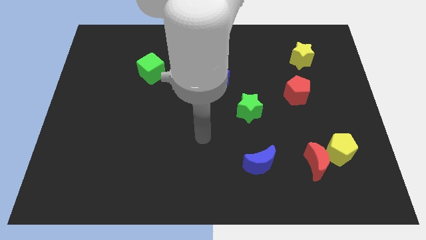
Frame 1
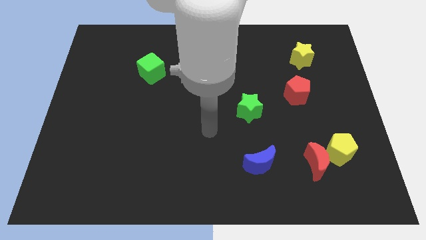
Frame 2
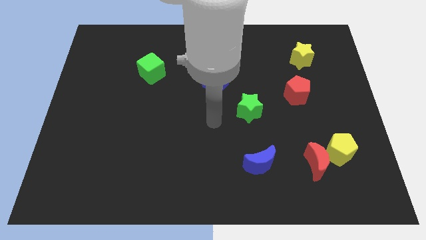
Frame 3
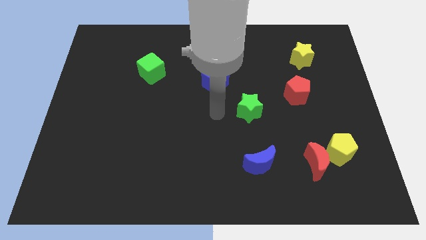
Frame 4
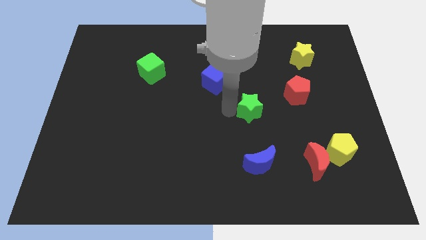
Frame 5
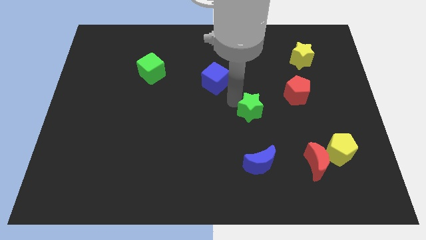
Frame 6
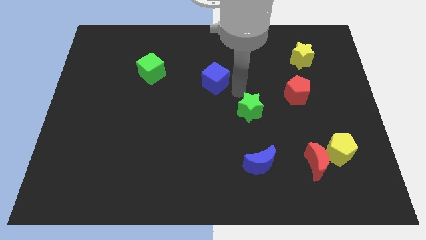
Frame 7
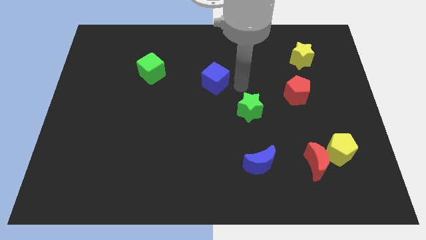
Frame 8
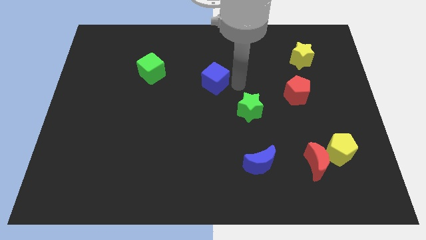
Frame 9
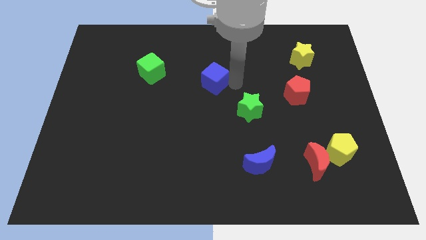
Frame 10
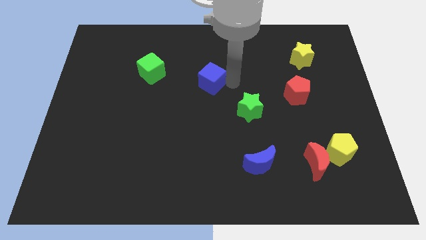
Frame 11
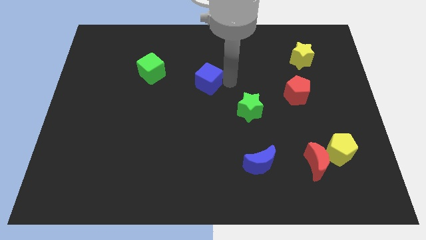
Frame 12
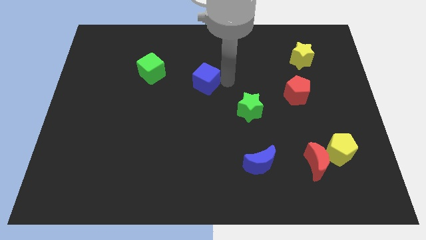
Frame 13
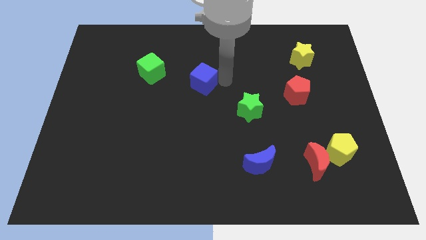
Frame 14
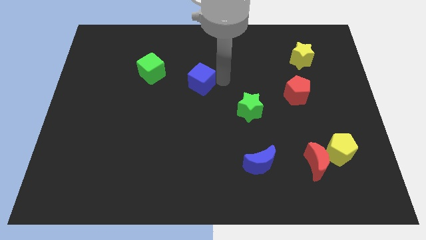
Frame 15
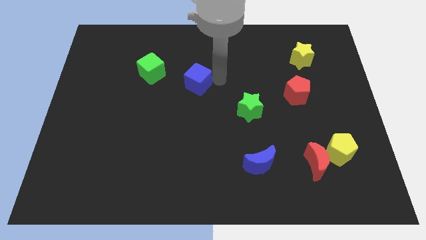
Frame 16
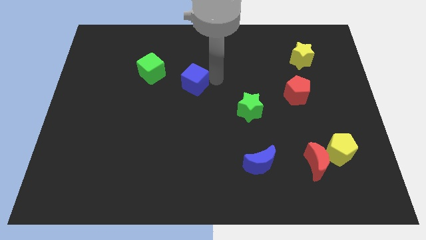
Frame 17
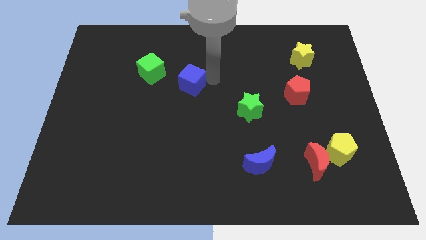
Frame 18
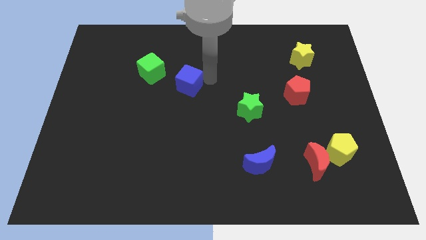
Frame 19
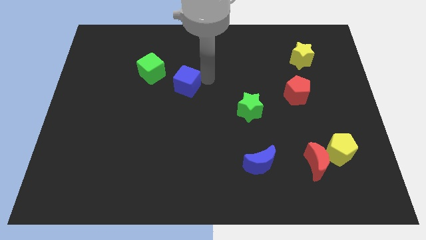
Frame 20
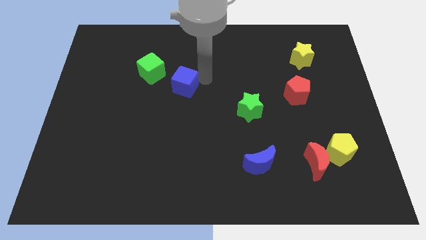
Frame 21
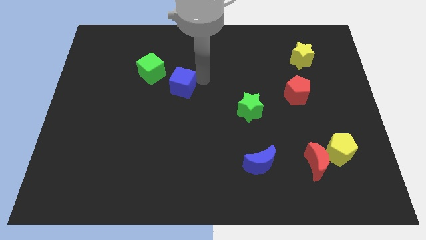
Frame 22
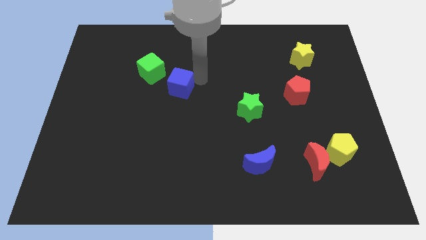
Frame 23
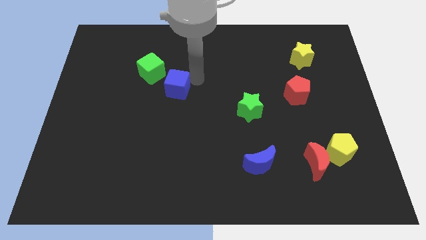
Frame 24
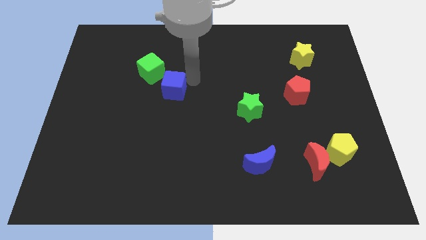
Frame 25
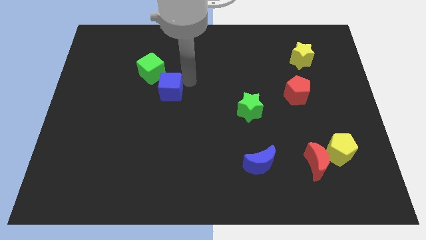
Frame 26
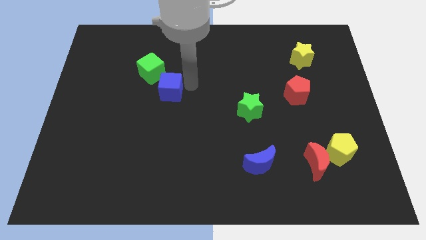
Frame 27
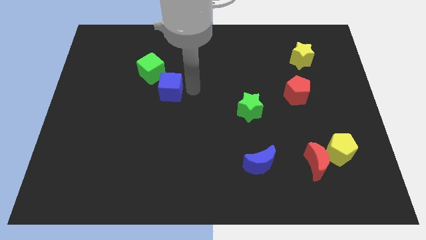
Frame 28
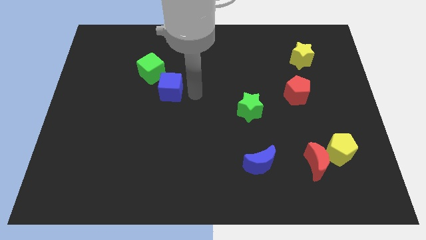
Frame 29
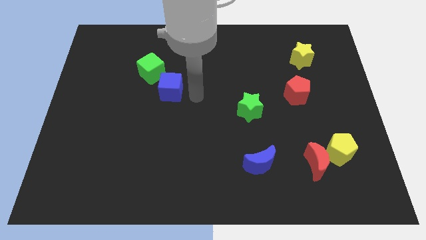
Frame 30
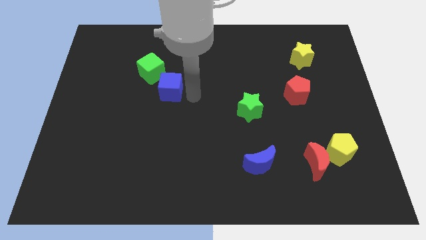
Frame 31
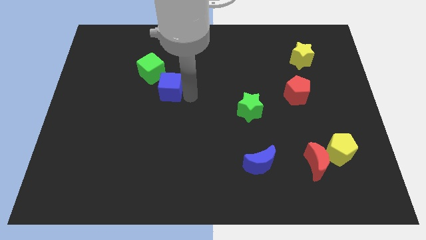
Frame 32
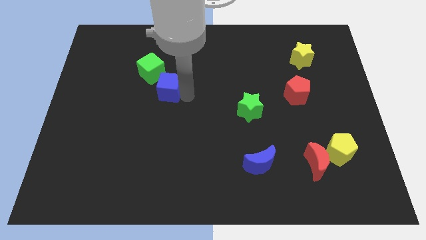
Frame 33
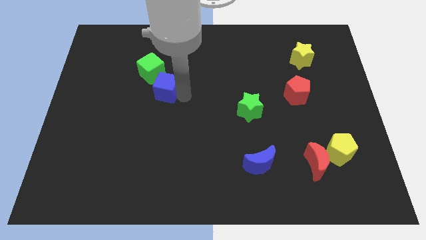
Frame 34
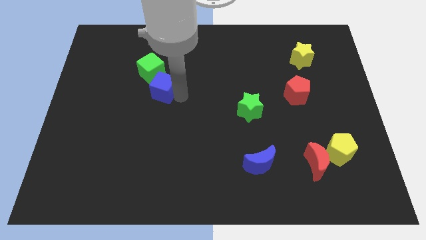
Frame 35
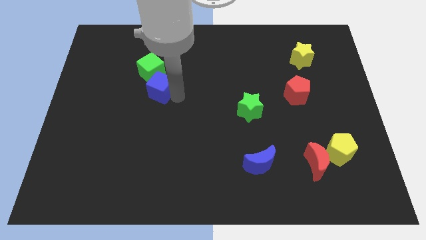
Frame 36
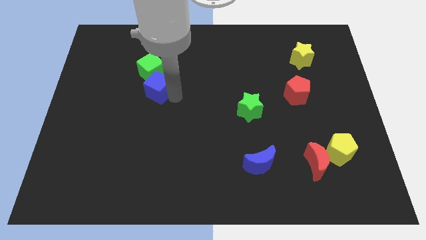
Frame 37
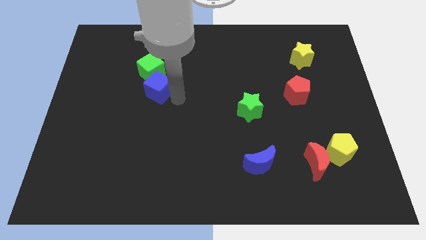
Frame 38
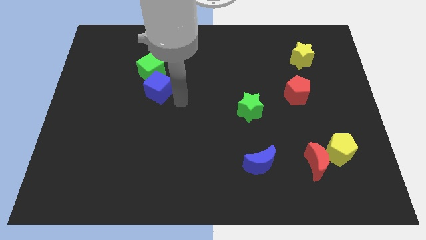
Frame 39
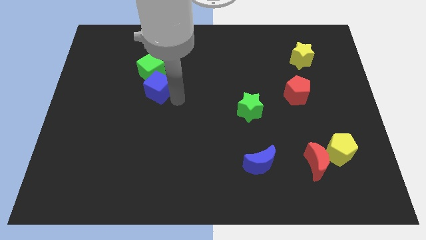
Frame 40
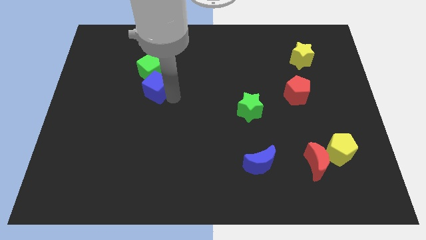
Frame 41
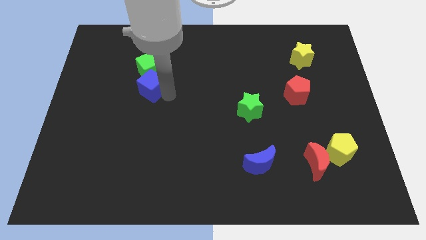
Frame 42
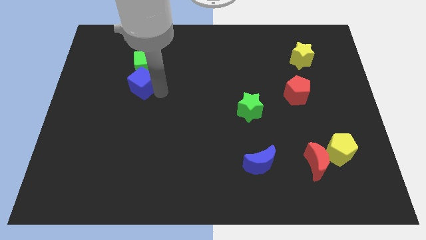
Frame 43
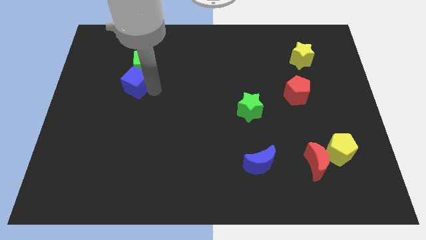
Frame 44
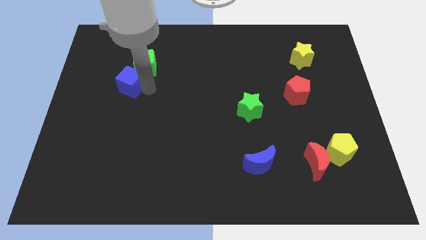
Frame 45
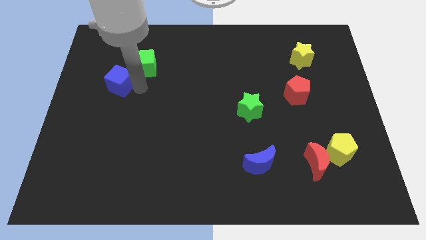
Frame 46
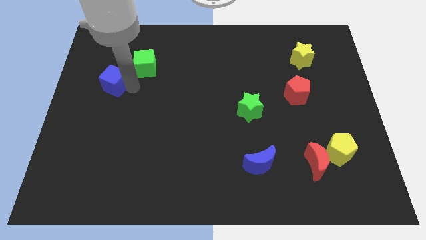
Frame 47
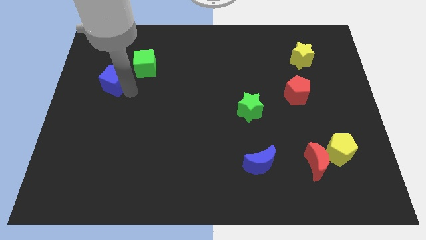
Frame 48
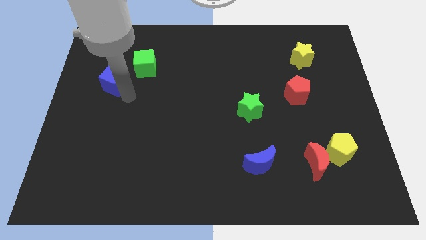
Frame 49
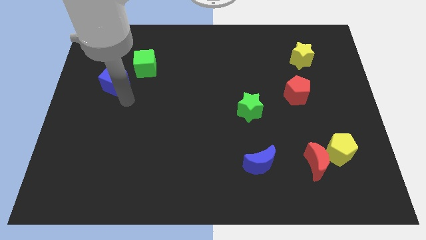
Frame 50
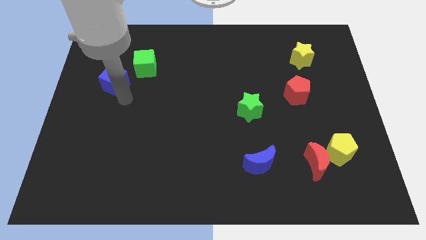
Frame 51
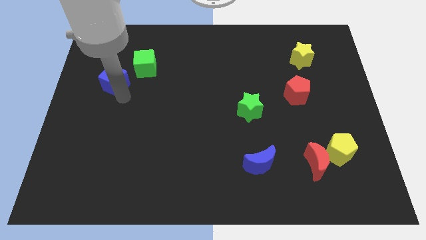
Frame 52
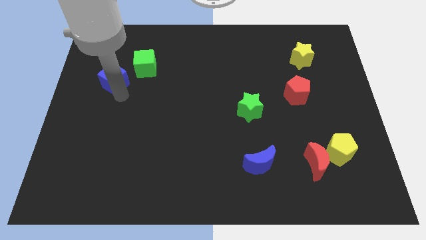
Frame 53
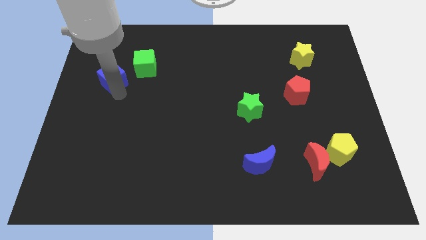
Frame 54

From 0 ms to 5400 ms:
push the blue cube just left of the green cube

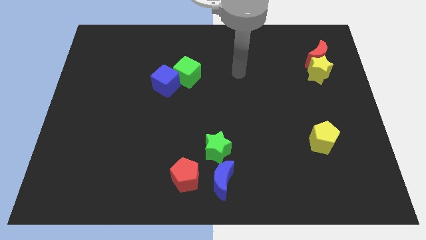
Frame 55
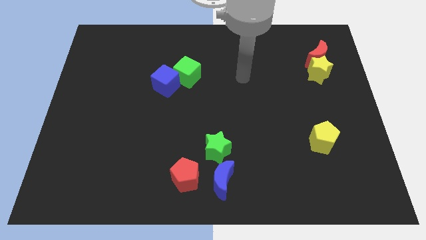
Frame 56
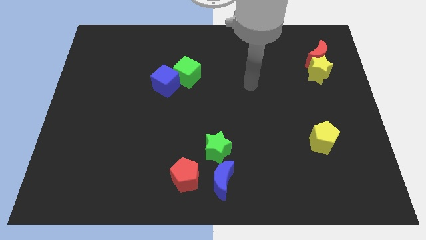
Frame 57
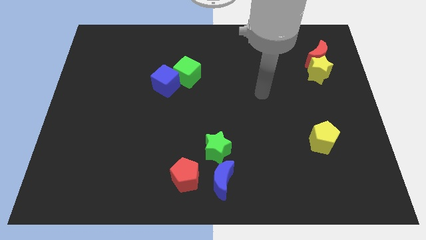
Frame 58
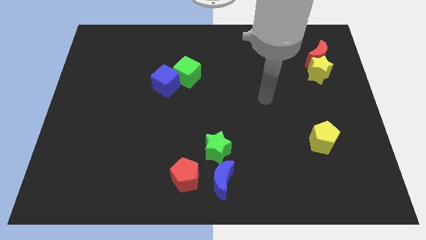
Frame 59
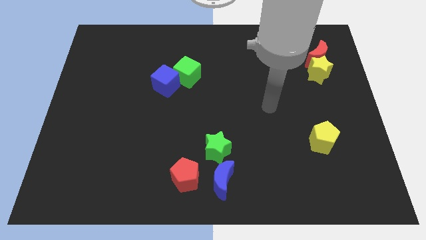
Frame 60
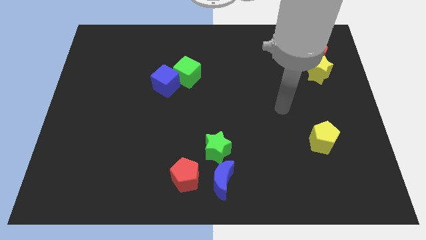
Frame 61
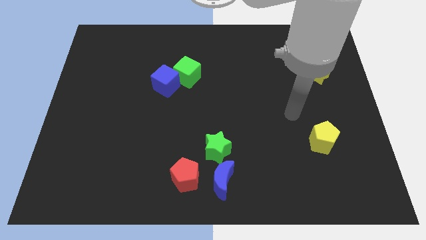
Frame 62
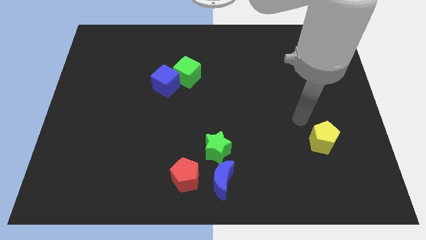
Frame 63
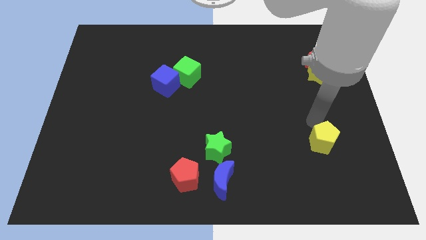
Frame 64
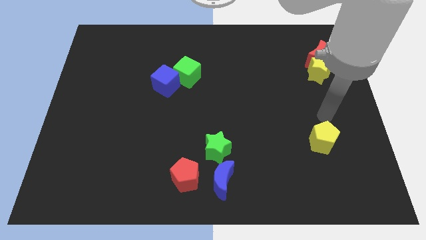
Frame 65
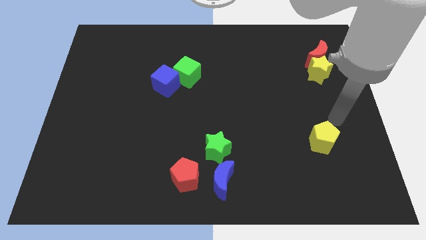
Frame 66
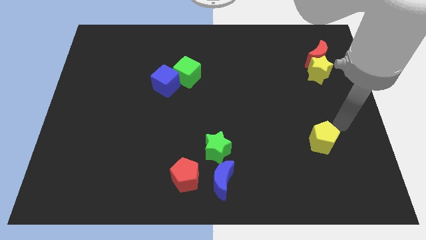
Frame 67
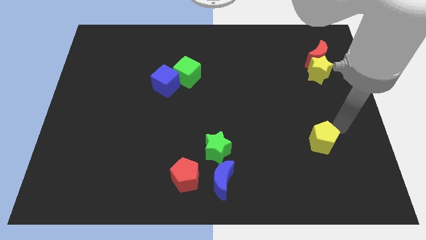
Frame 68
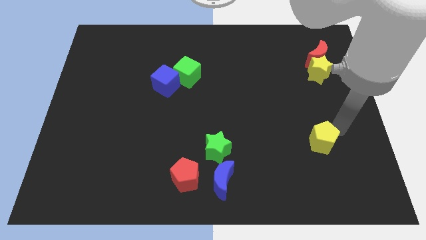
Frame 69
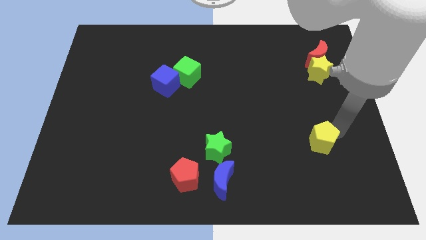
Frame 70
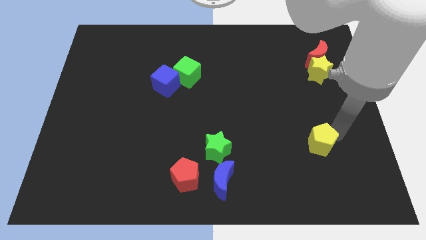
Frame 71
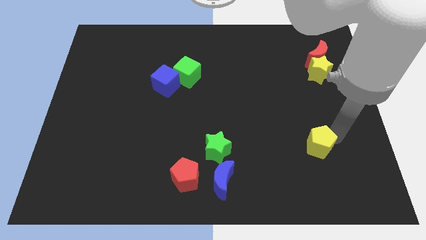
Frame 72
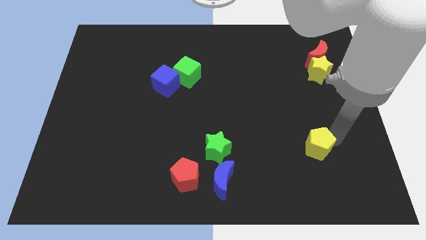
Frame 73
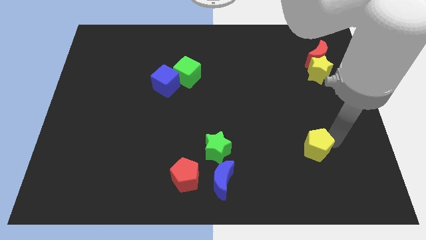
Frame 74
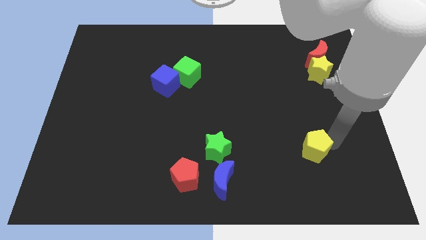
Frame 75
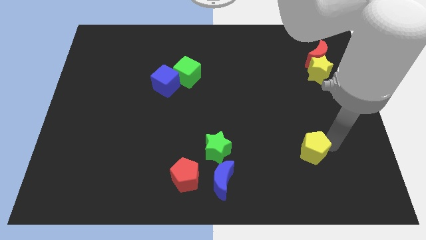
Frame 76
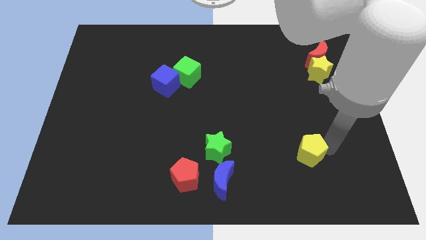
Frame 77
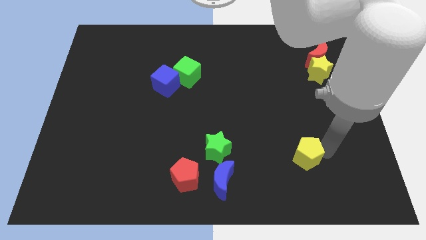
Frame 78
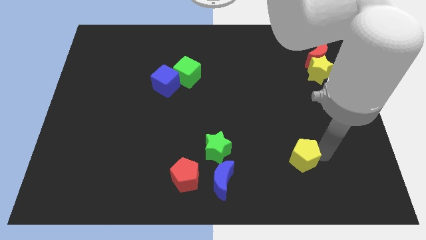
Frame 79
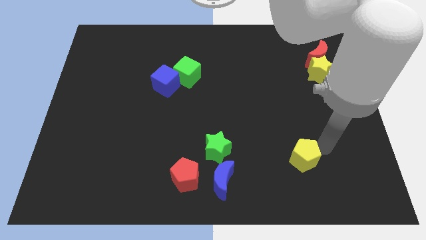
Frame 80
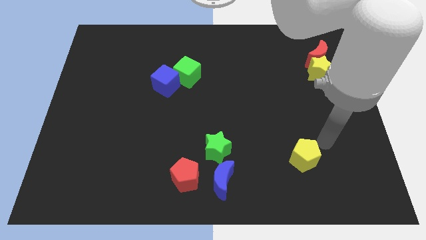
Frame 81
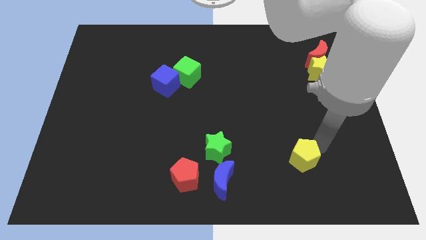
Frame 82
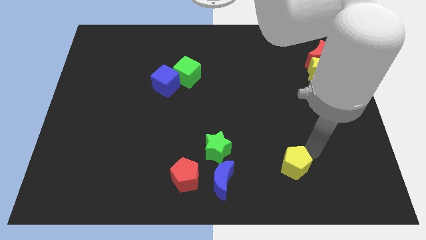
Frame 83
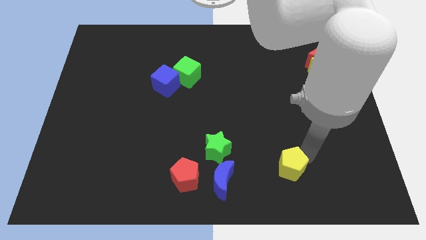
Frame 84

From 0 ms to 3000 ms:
push the yellow pentagon right of the blue moon
